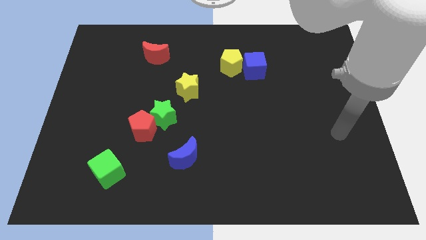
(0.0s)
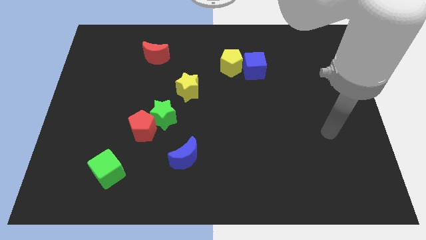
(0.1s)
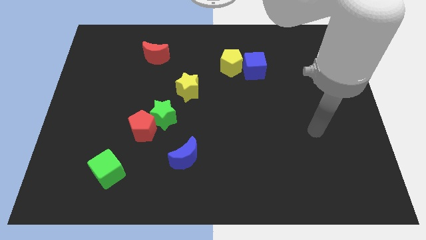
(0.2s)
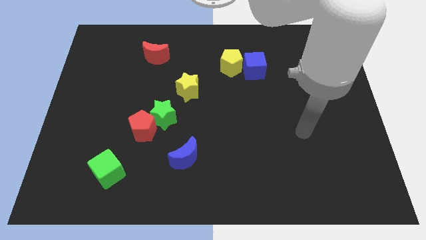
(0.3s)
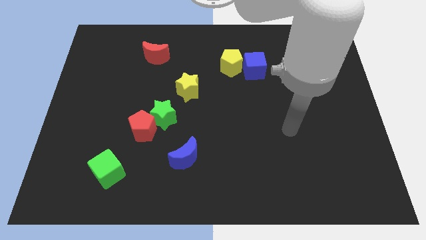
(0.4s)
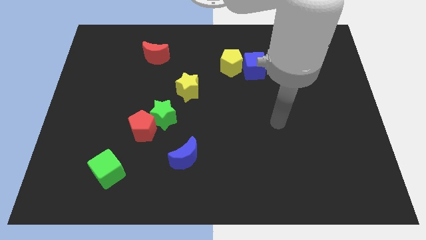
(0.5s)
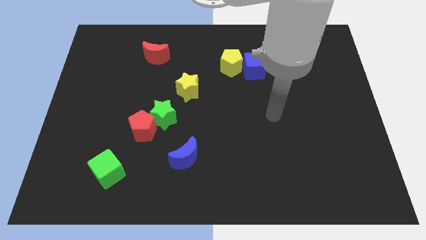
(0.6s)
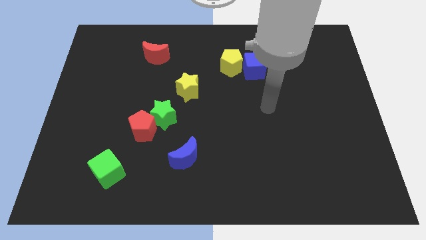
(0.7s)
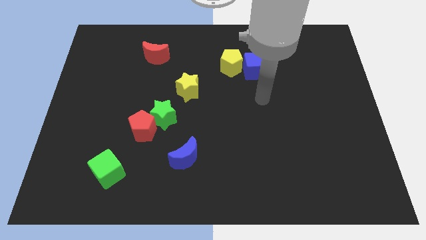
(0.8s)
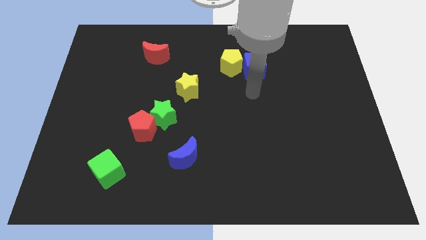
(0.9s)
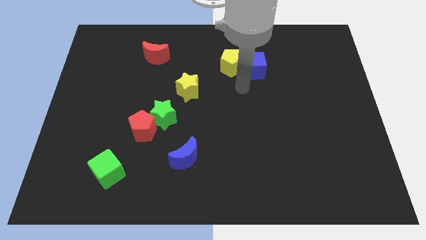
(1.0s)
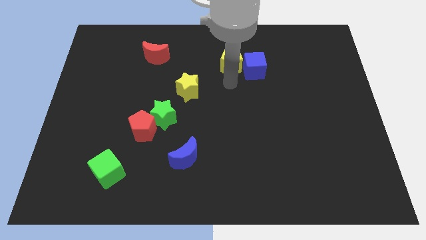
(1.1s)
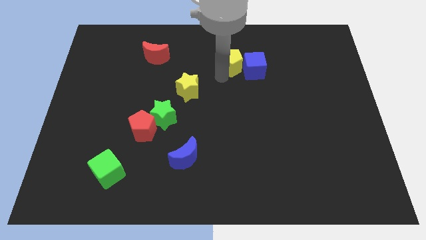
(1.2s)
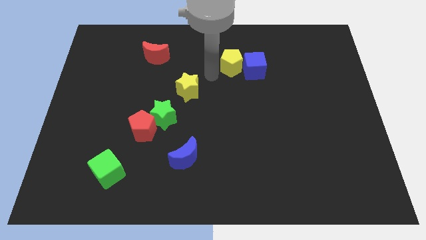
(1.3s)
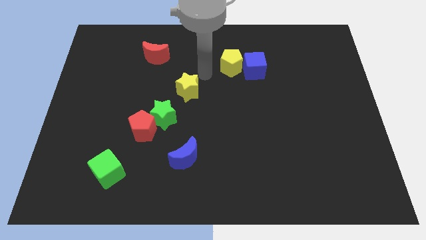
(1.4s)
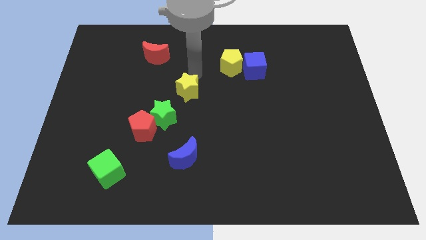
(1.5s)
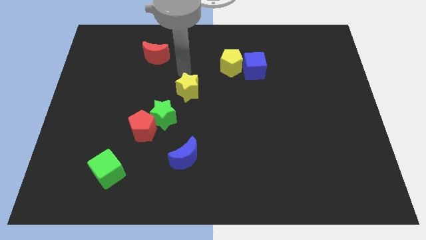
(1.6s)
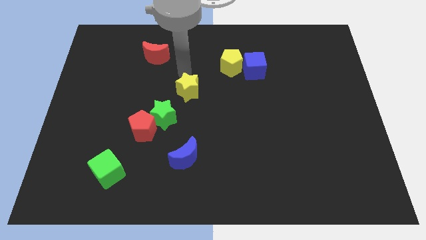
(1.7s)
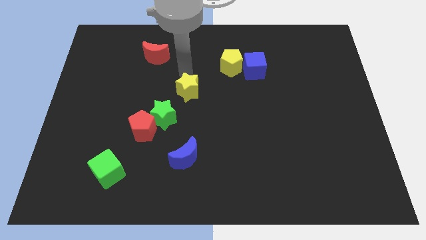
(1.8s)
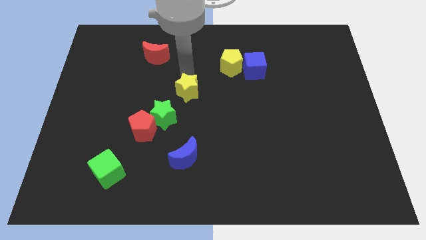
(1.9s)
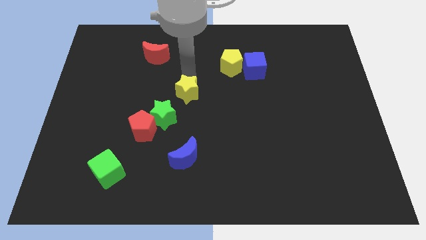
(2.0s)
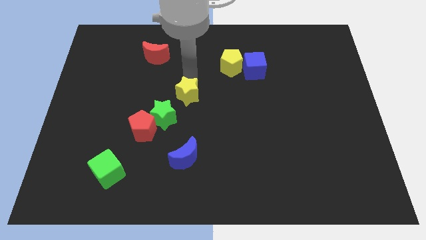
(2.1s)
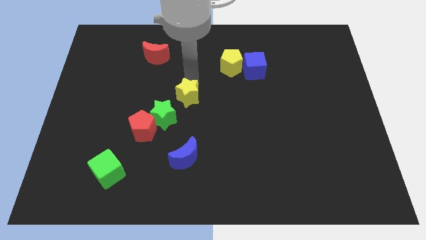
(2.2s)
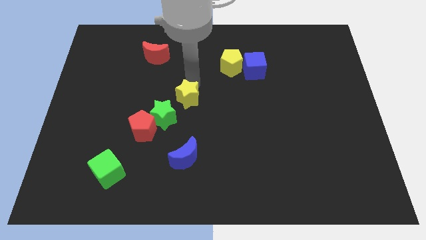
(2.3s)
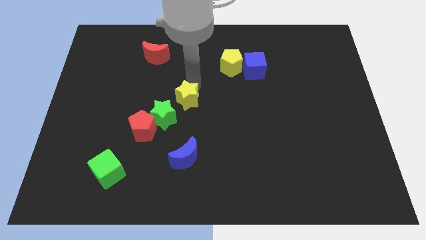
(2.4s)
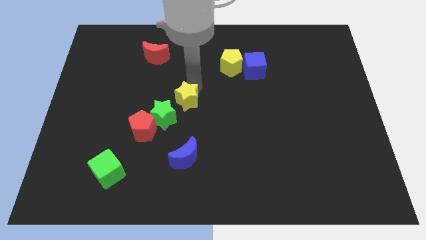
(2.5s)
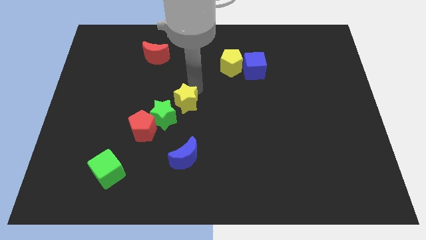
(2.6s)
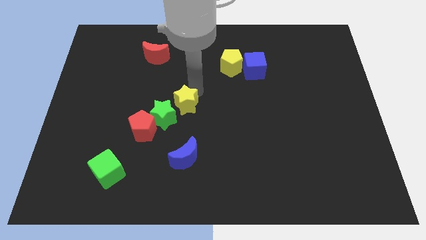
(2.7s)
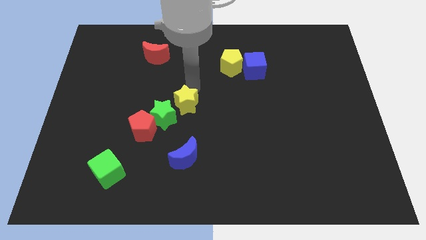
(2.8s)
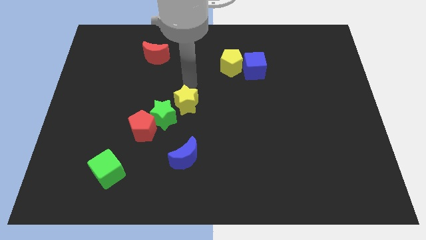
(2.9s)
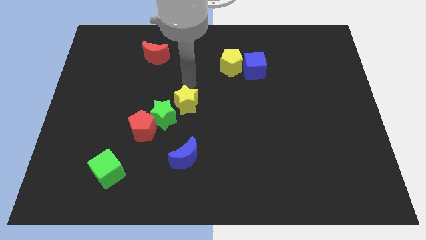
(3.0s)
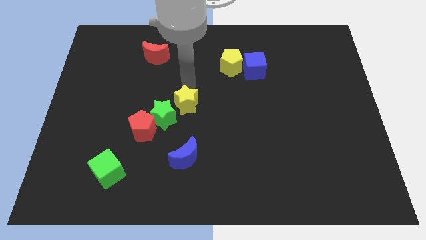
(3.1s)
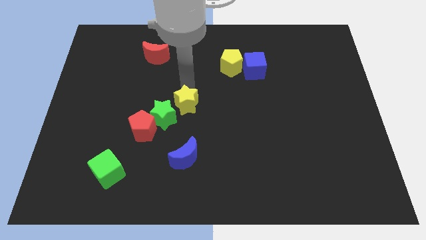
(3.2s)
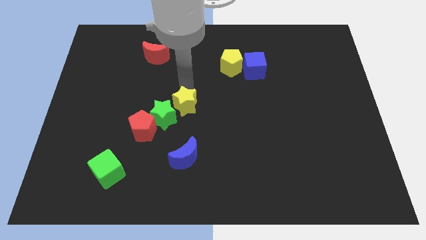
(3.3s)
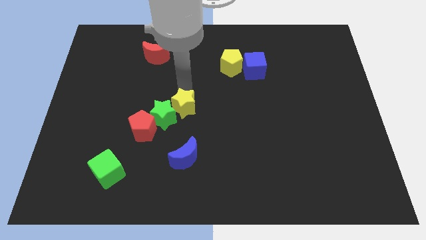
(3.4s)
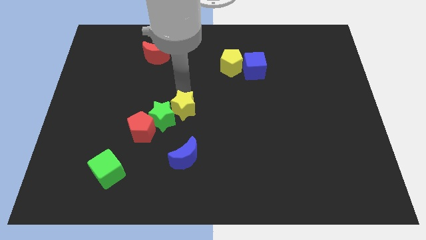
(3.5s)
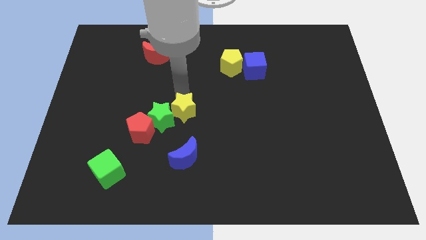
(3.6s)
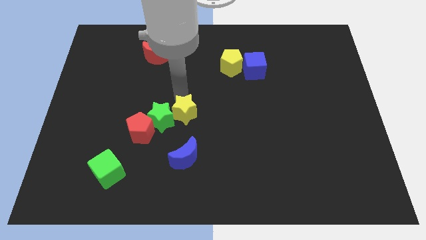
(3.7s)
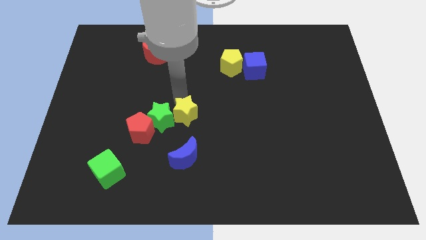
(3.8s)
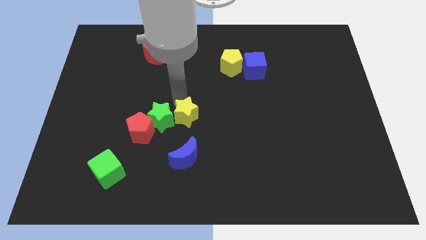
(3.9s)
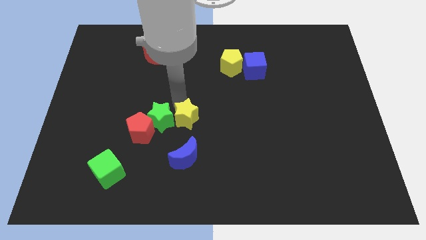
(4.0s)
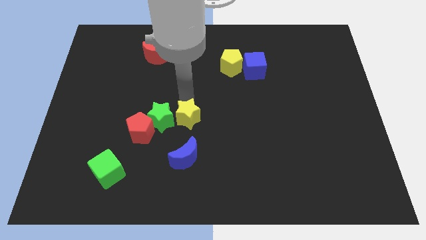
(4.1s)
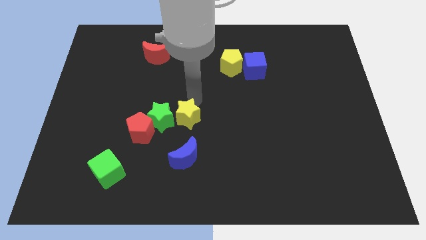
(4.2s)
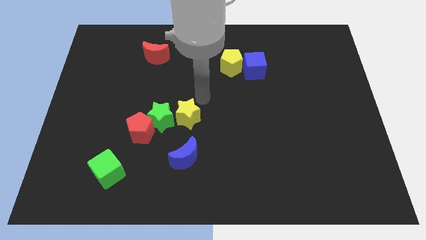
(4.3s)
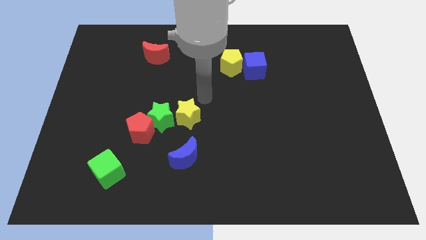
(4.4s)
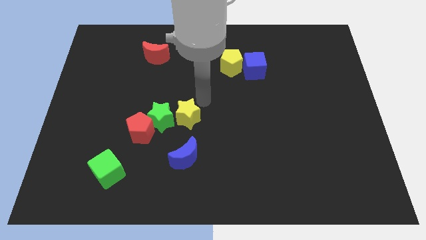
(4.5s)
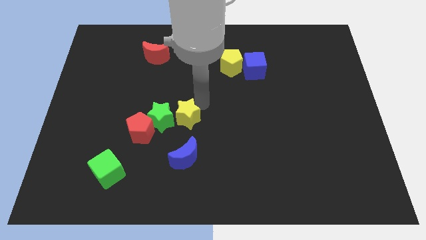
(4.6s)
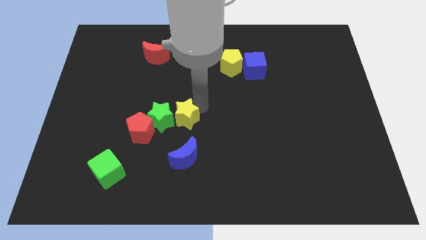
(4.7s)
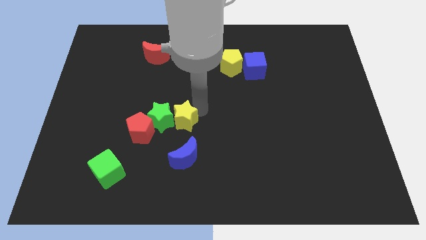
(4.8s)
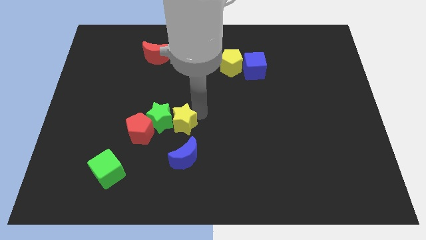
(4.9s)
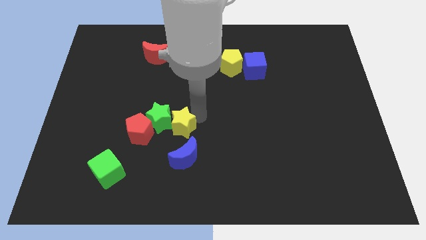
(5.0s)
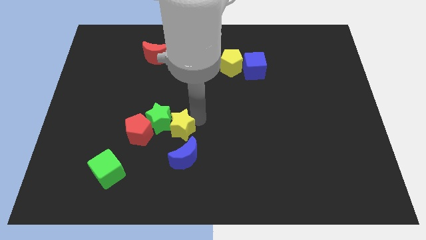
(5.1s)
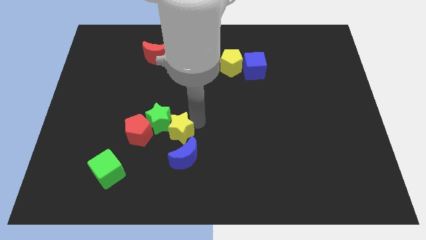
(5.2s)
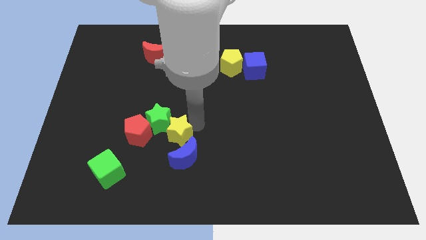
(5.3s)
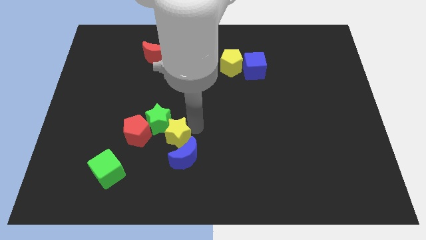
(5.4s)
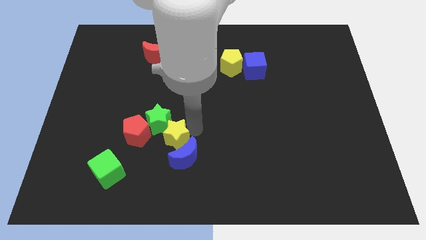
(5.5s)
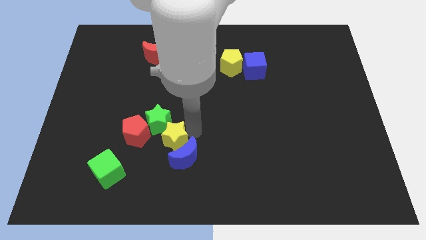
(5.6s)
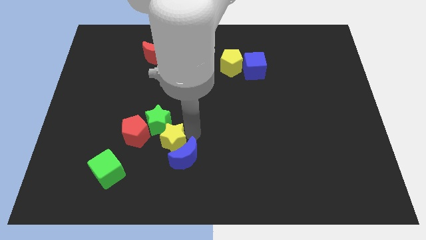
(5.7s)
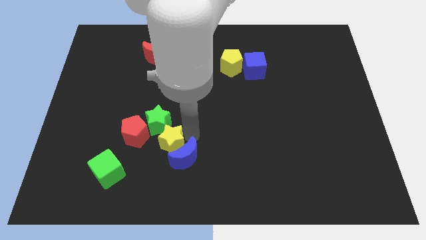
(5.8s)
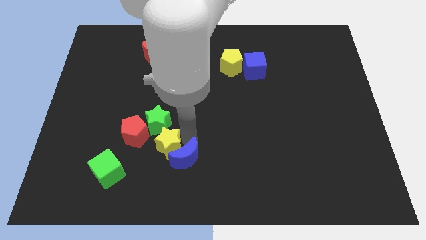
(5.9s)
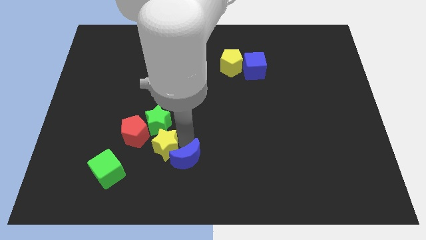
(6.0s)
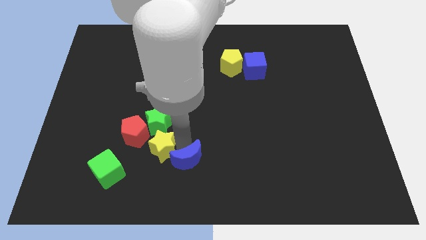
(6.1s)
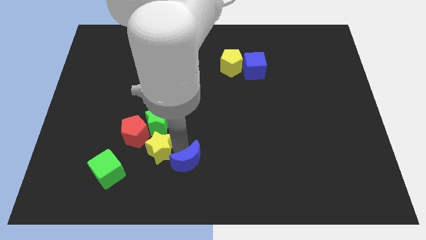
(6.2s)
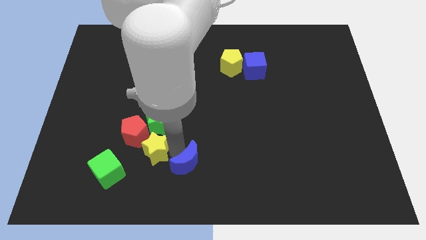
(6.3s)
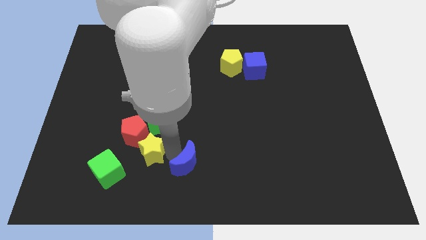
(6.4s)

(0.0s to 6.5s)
put the yellow star to the bottom of the red pentagon

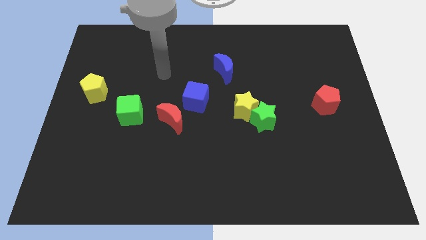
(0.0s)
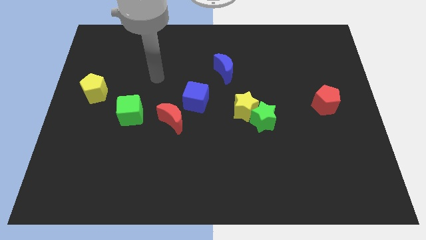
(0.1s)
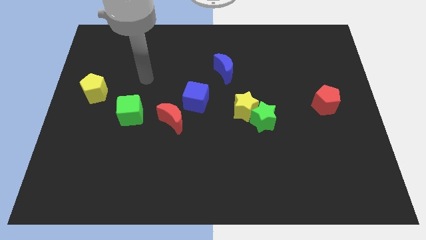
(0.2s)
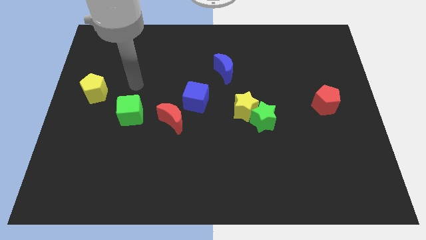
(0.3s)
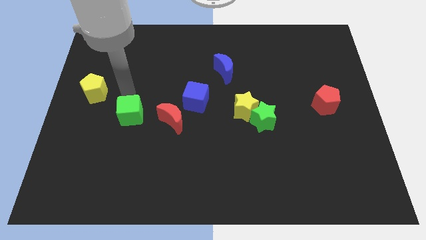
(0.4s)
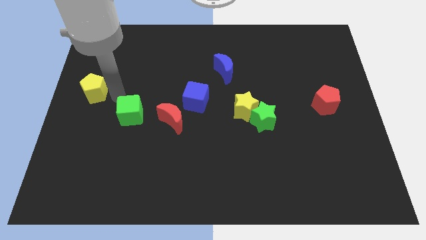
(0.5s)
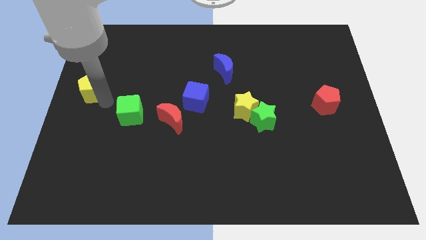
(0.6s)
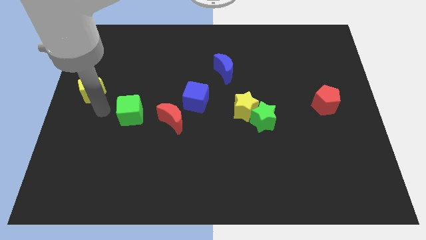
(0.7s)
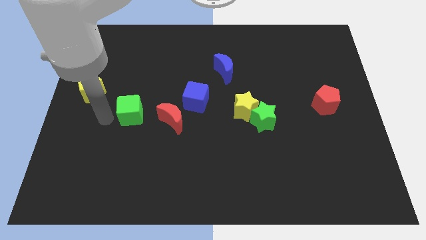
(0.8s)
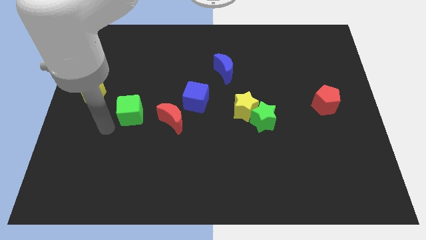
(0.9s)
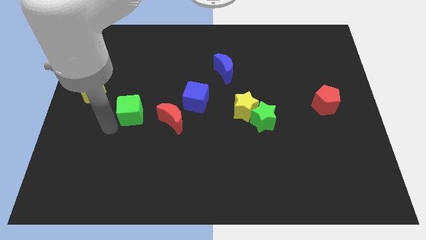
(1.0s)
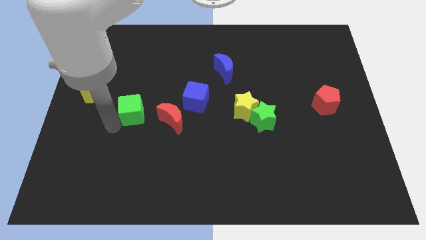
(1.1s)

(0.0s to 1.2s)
push the green cube to the left of the blue cube
